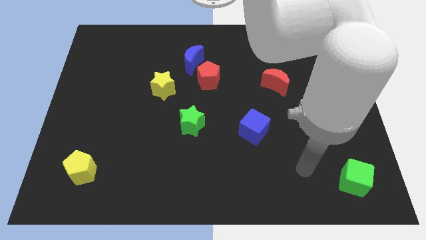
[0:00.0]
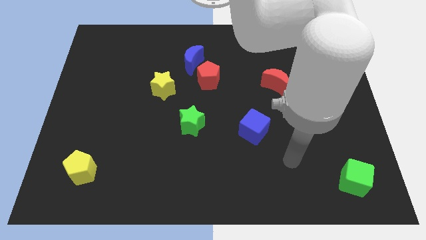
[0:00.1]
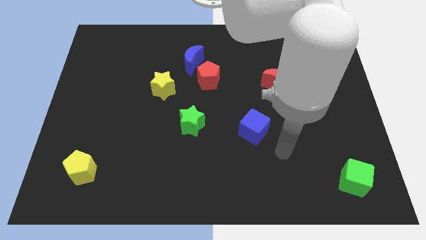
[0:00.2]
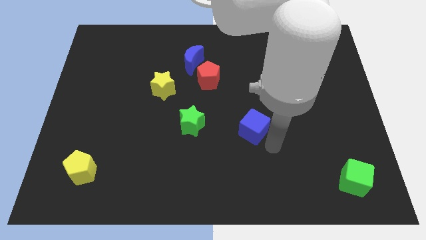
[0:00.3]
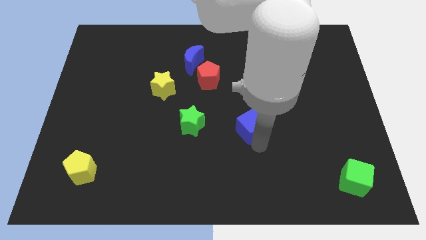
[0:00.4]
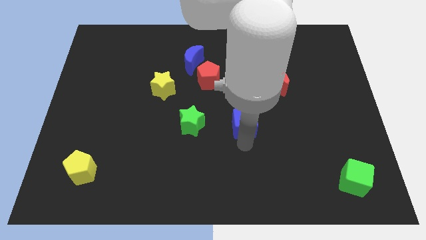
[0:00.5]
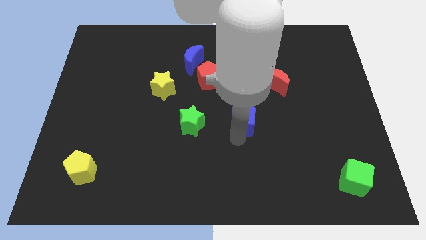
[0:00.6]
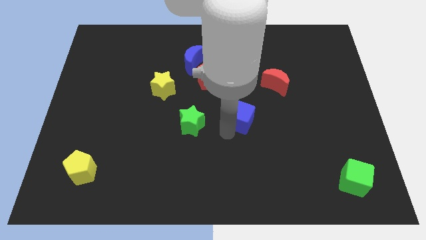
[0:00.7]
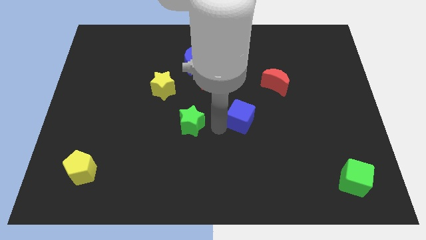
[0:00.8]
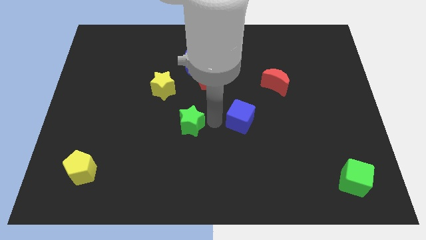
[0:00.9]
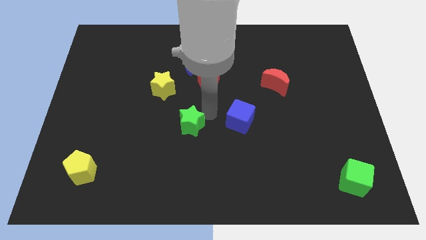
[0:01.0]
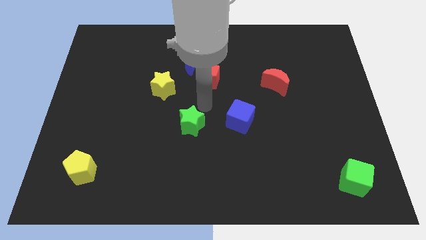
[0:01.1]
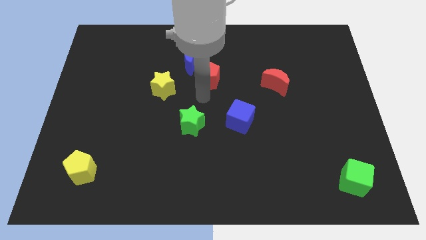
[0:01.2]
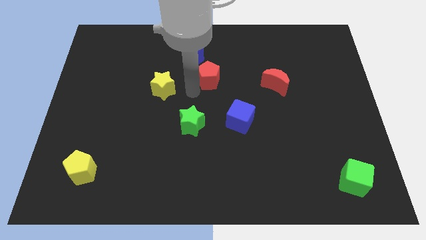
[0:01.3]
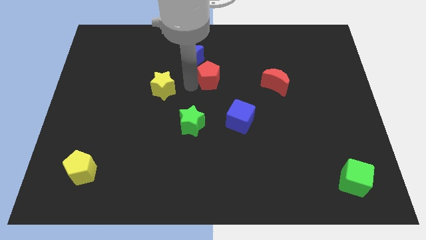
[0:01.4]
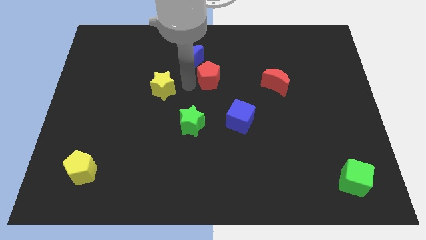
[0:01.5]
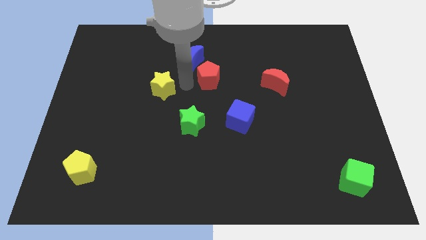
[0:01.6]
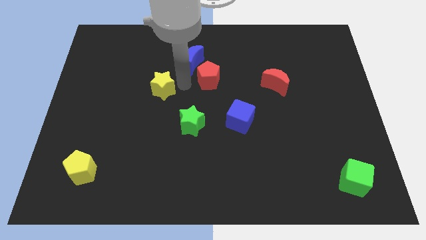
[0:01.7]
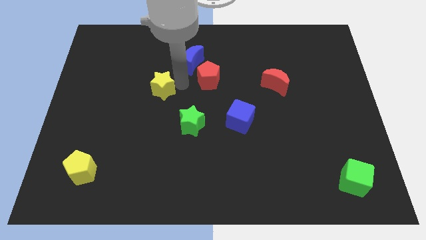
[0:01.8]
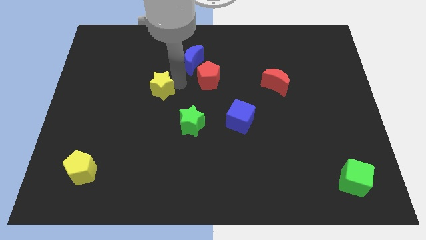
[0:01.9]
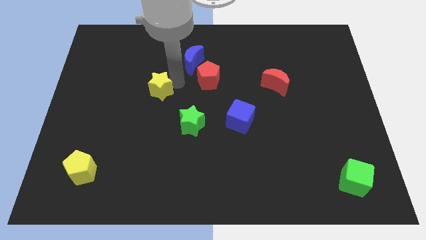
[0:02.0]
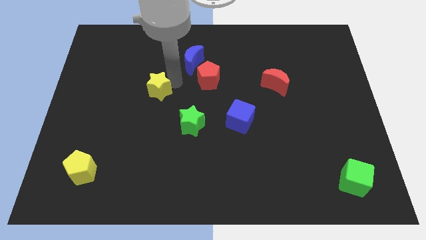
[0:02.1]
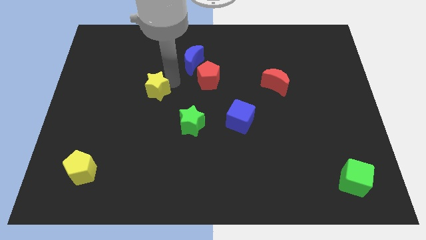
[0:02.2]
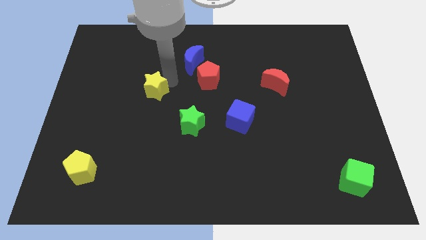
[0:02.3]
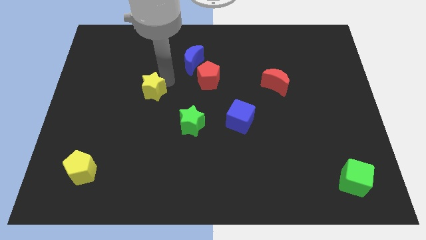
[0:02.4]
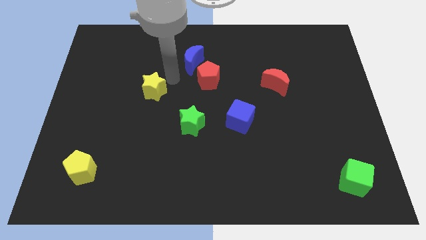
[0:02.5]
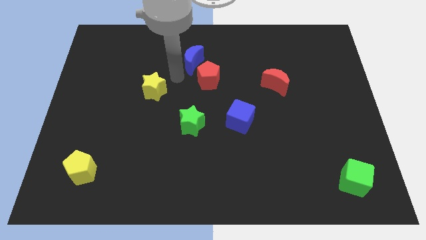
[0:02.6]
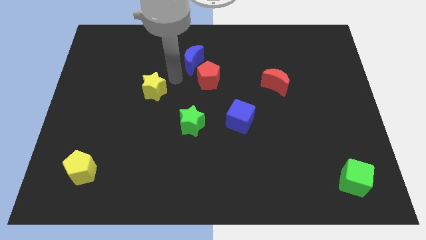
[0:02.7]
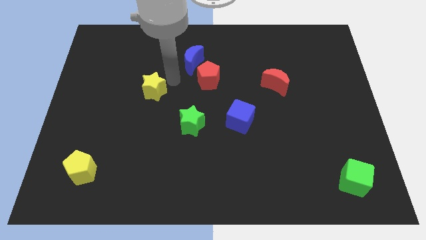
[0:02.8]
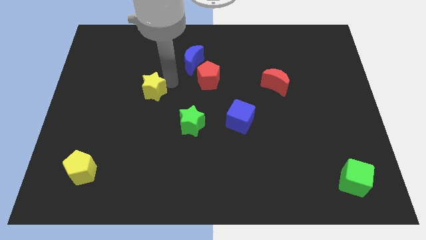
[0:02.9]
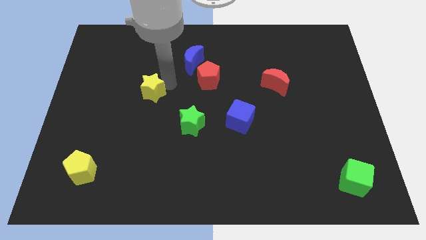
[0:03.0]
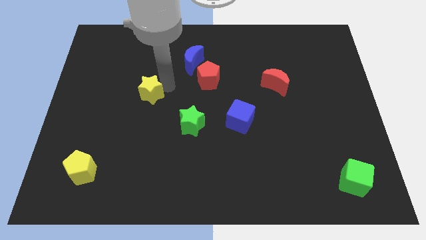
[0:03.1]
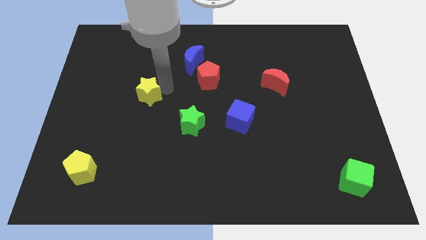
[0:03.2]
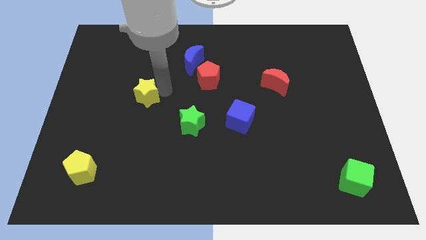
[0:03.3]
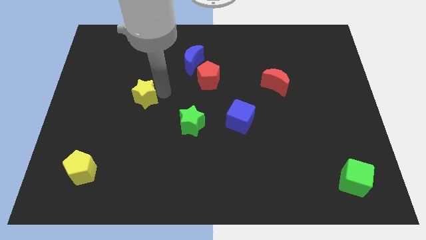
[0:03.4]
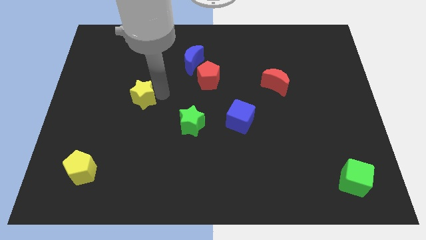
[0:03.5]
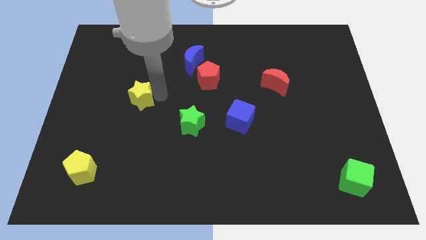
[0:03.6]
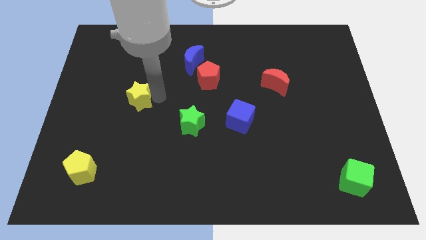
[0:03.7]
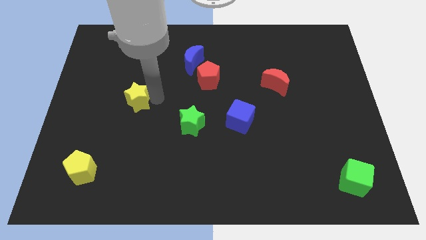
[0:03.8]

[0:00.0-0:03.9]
slightly move the yellow star downwards and left diagonally

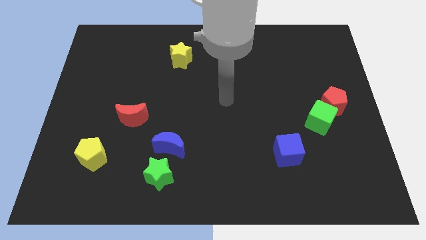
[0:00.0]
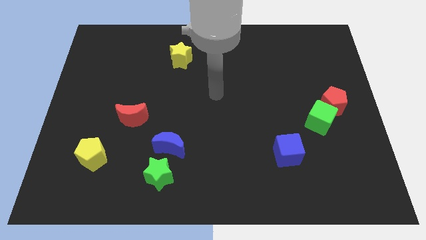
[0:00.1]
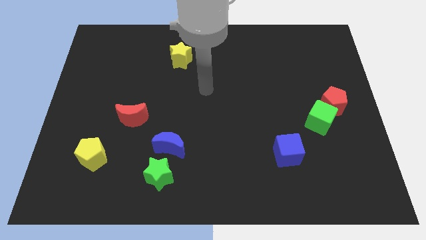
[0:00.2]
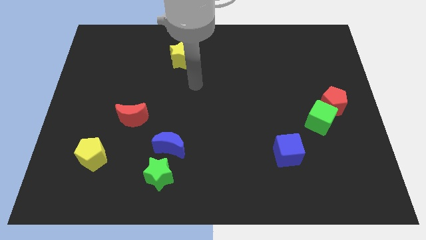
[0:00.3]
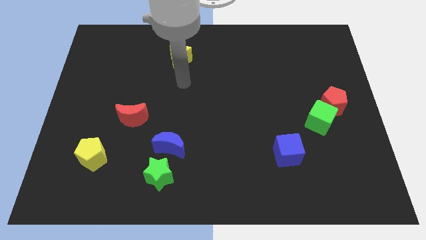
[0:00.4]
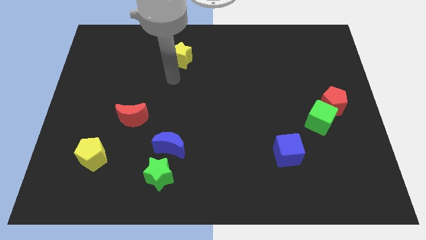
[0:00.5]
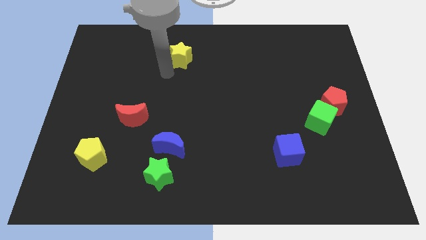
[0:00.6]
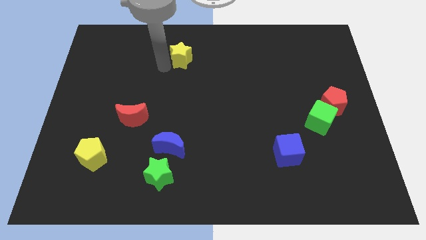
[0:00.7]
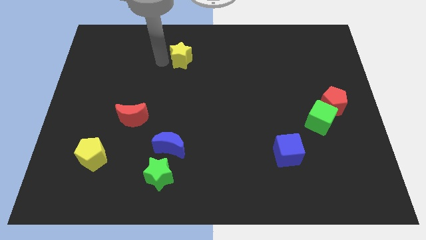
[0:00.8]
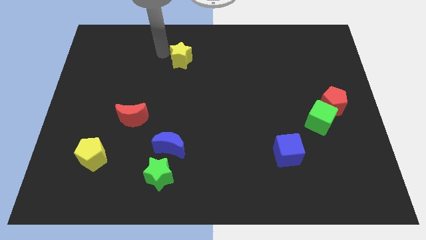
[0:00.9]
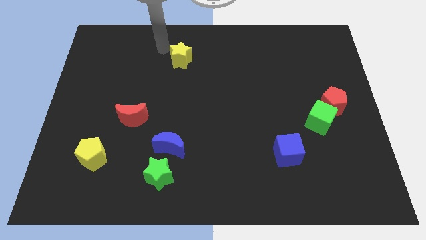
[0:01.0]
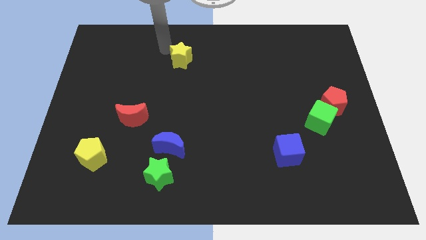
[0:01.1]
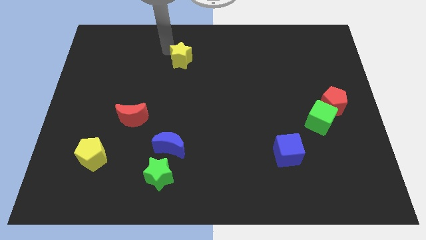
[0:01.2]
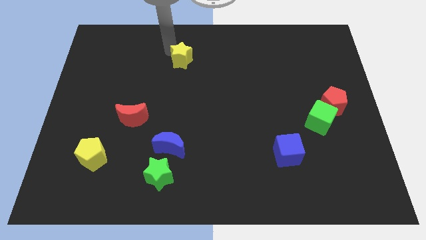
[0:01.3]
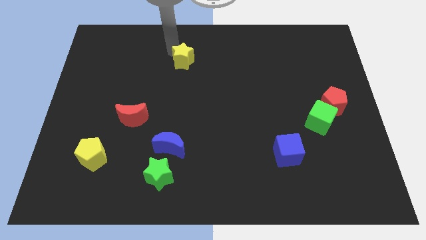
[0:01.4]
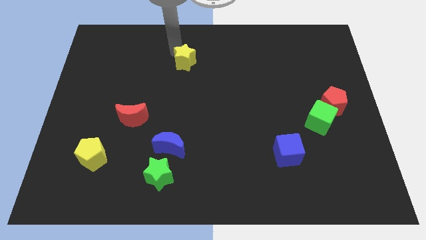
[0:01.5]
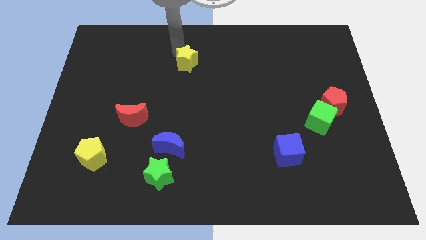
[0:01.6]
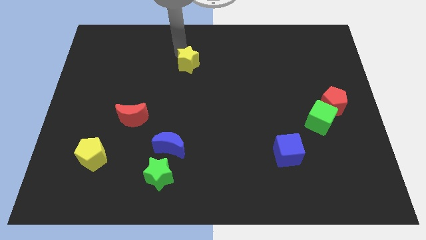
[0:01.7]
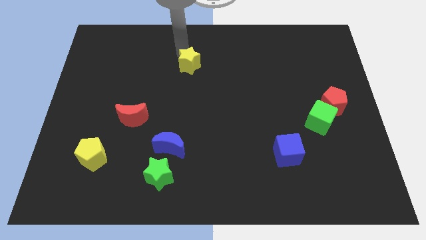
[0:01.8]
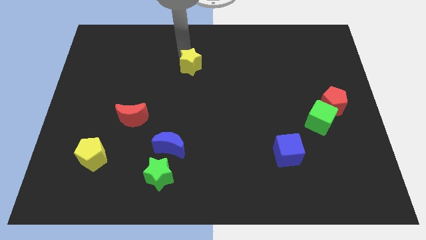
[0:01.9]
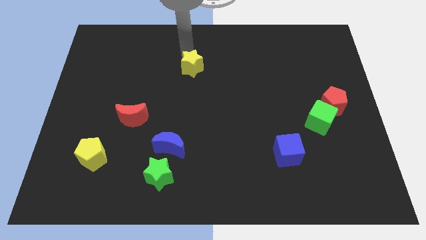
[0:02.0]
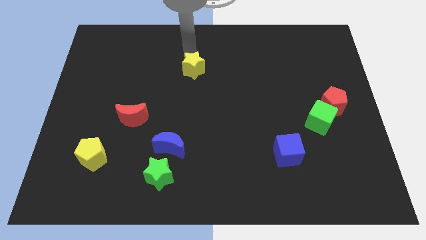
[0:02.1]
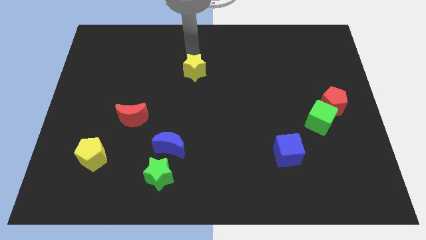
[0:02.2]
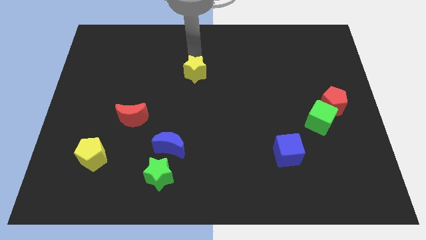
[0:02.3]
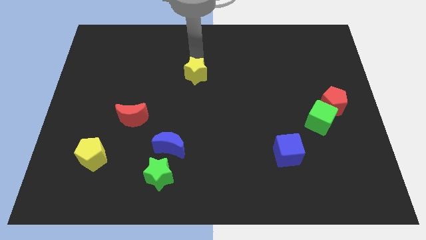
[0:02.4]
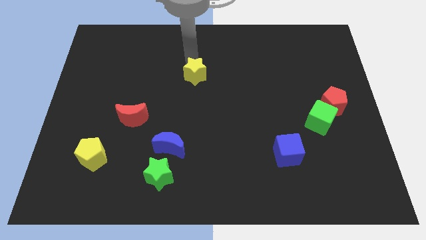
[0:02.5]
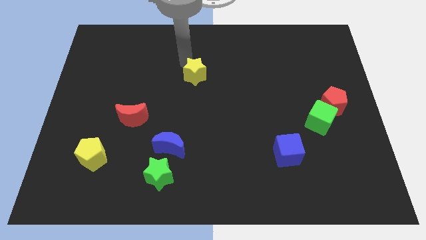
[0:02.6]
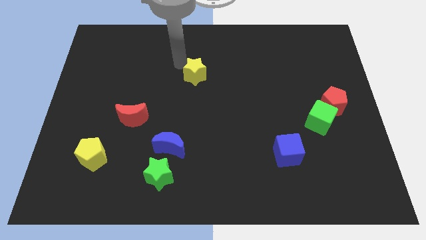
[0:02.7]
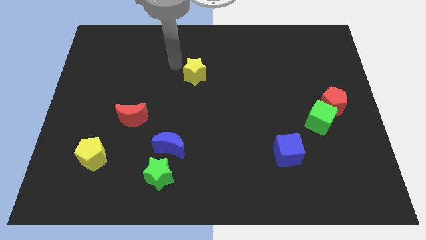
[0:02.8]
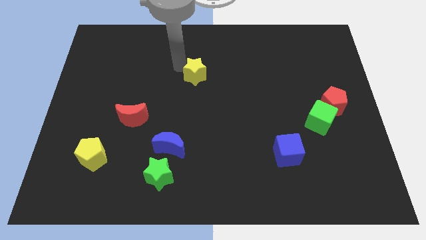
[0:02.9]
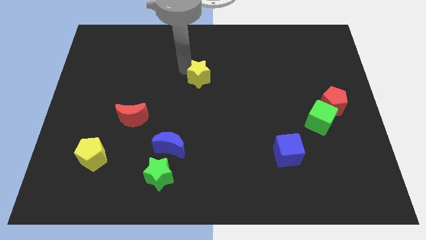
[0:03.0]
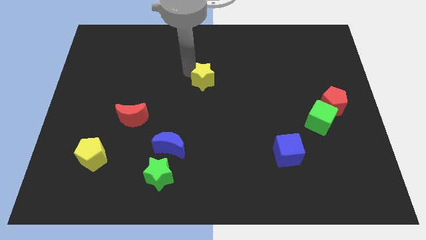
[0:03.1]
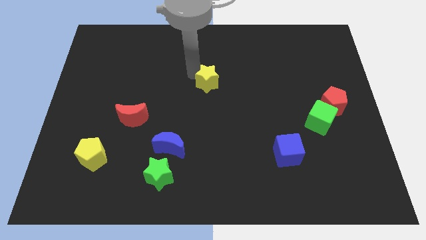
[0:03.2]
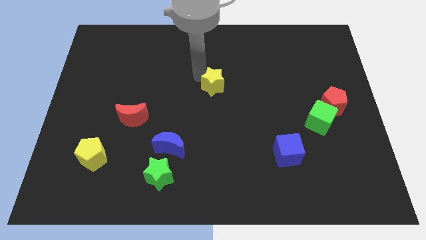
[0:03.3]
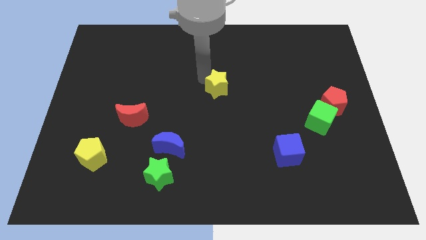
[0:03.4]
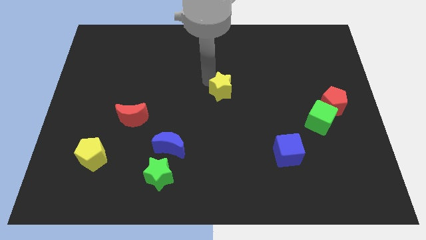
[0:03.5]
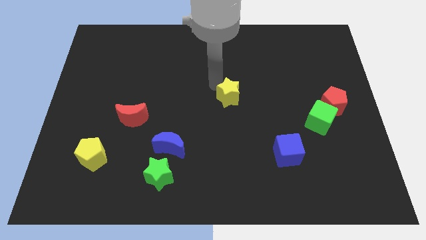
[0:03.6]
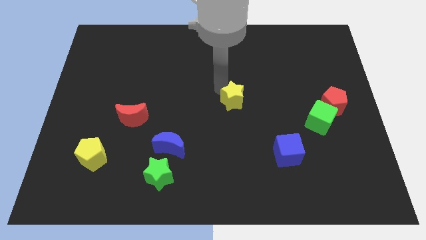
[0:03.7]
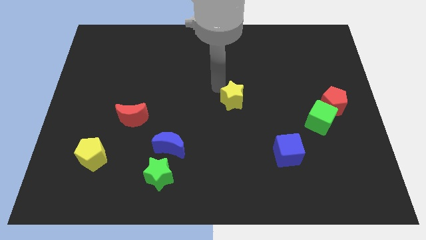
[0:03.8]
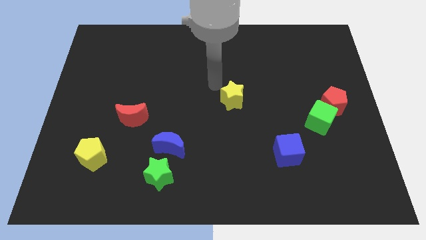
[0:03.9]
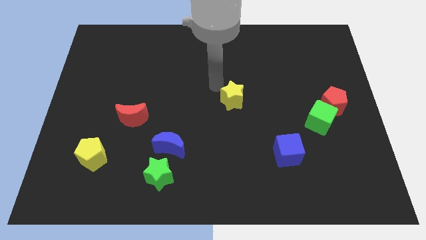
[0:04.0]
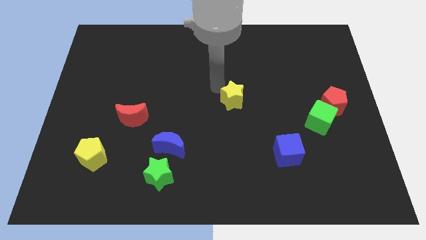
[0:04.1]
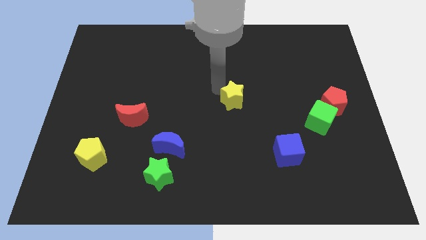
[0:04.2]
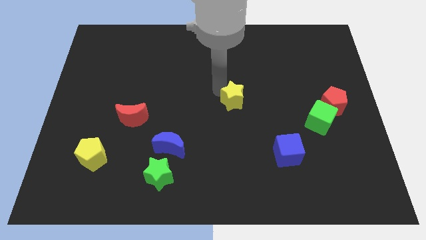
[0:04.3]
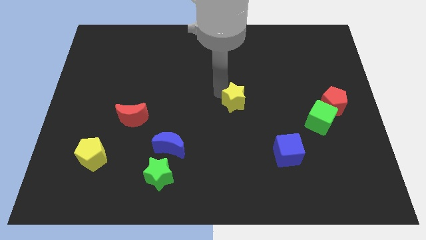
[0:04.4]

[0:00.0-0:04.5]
push the yellow star down and then to the right
